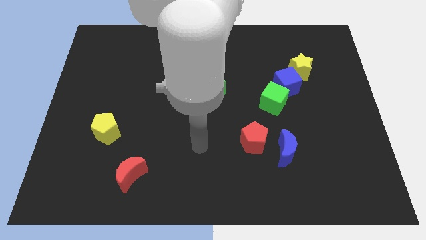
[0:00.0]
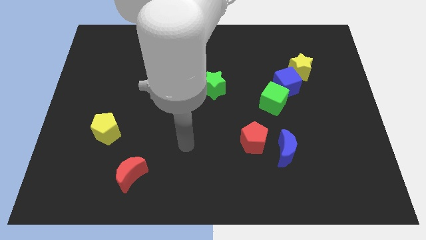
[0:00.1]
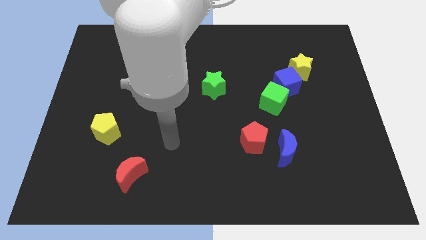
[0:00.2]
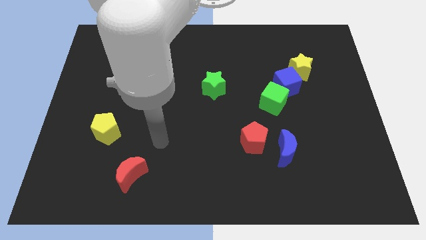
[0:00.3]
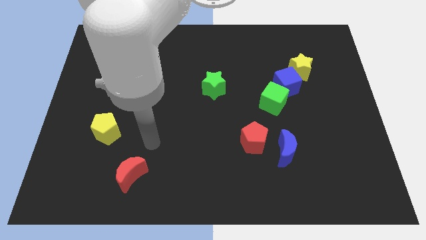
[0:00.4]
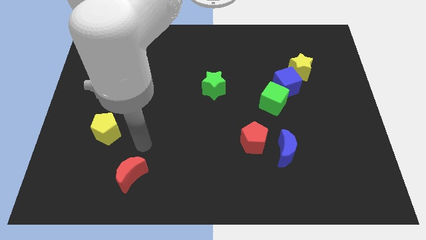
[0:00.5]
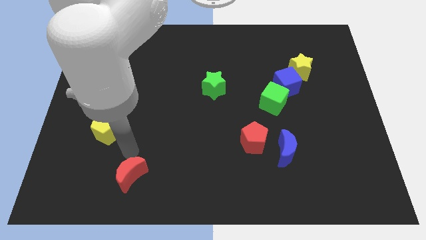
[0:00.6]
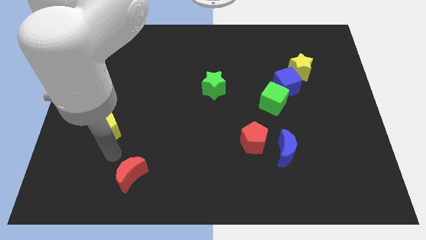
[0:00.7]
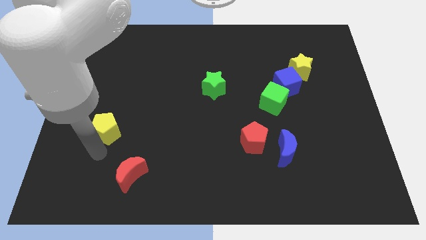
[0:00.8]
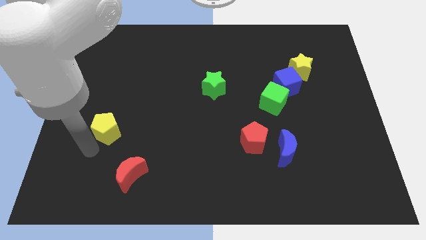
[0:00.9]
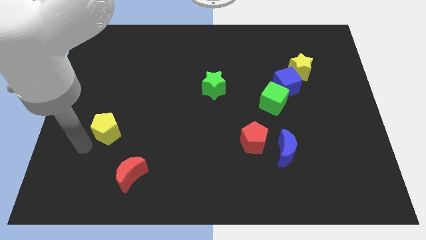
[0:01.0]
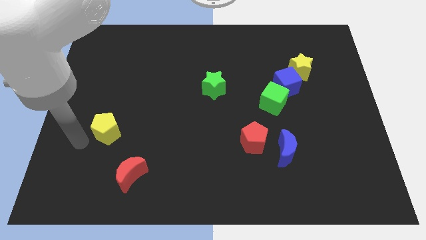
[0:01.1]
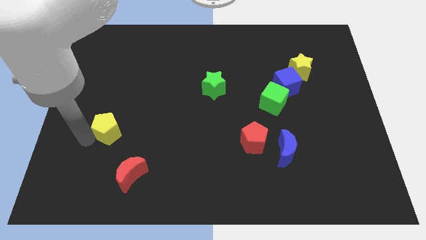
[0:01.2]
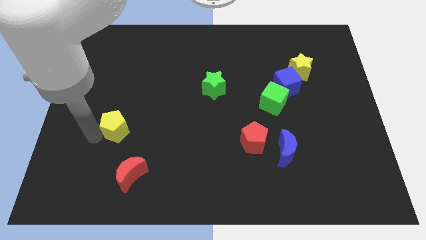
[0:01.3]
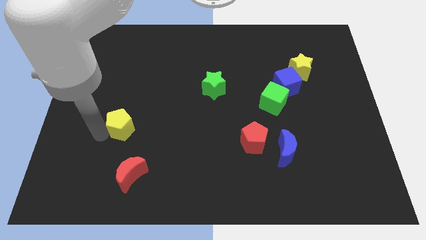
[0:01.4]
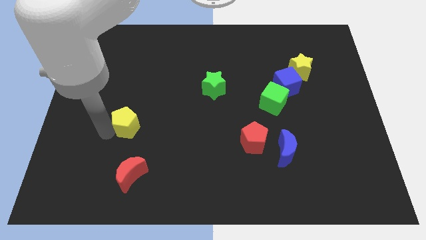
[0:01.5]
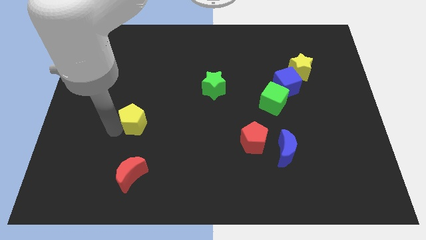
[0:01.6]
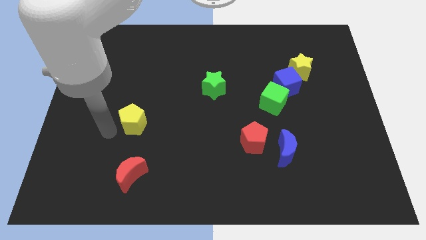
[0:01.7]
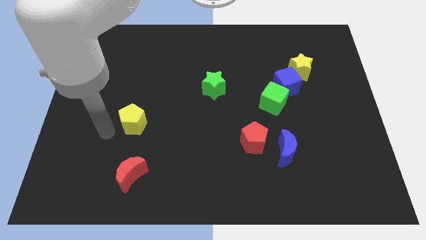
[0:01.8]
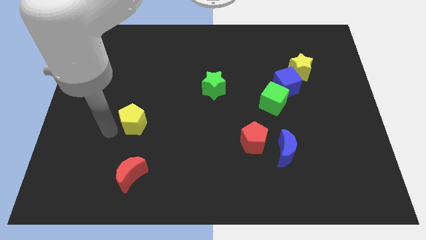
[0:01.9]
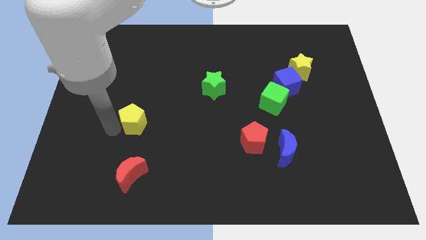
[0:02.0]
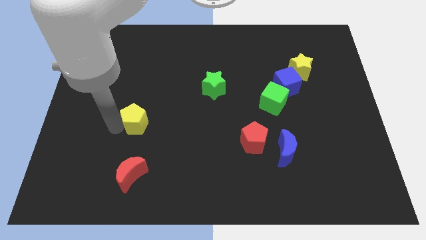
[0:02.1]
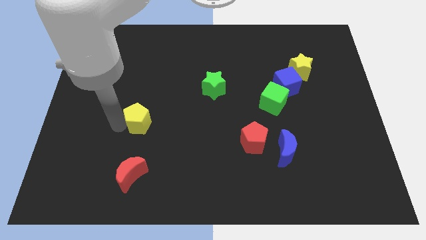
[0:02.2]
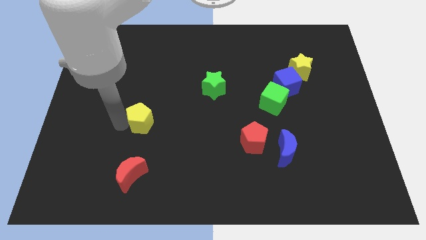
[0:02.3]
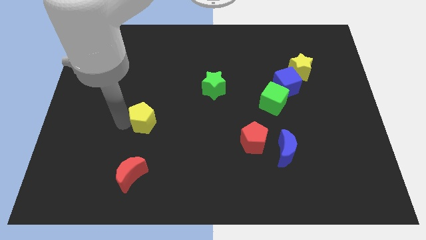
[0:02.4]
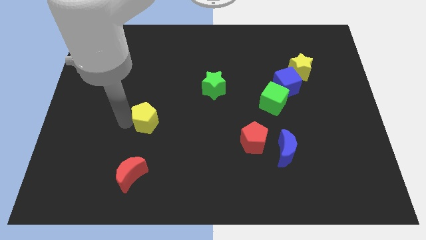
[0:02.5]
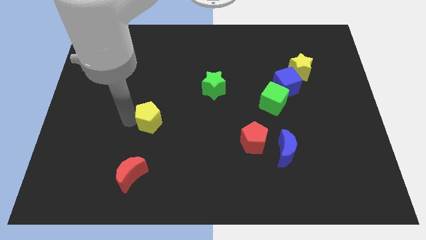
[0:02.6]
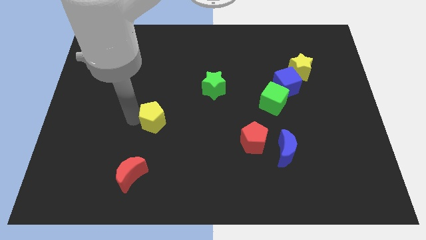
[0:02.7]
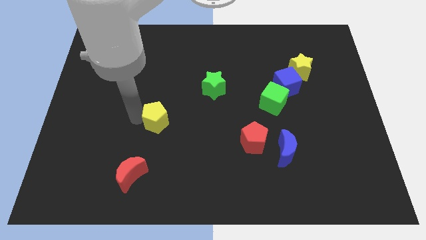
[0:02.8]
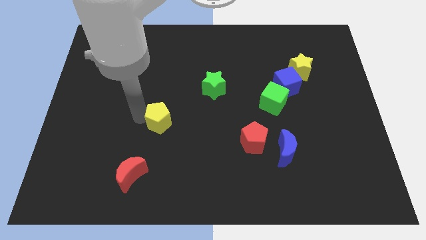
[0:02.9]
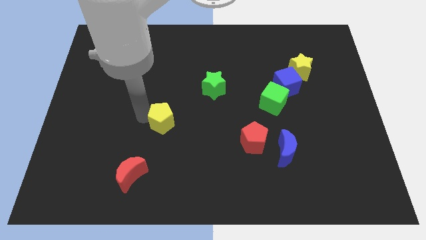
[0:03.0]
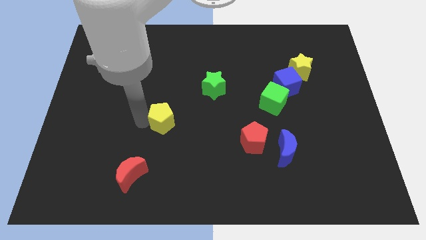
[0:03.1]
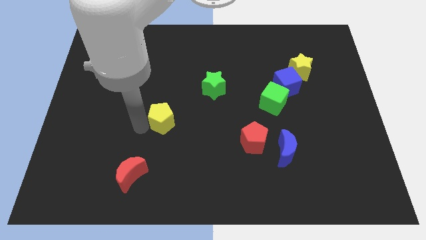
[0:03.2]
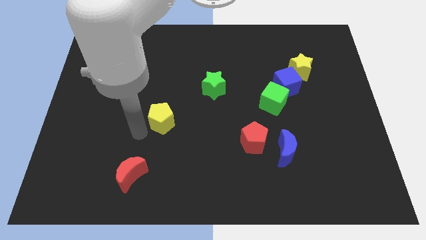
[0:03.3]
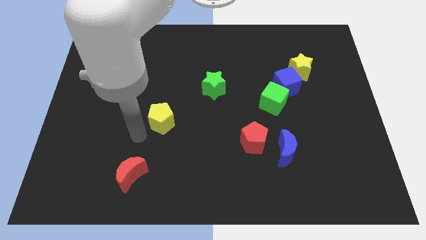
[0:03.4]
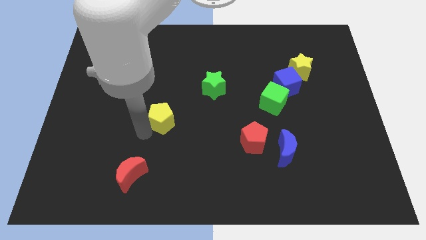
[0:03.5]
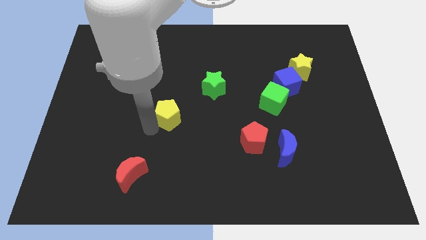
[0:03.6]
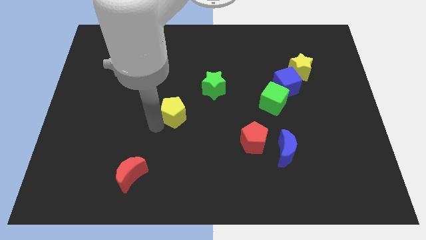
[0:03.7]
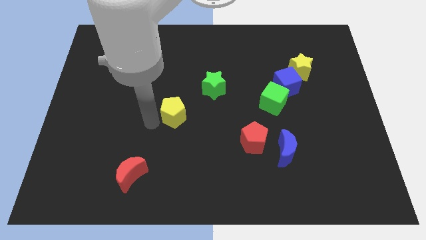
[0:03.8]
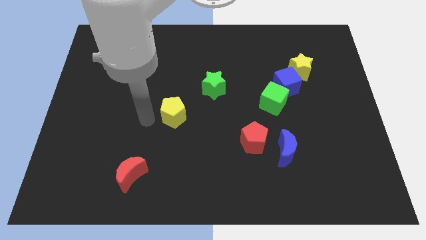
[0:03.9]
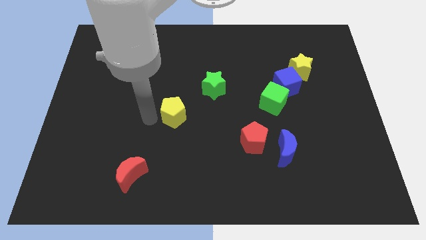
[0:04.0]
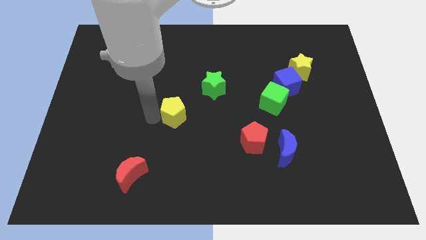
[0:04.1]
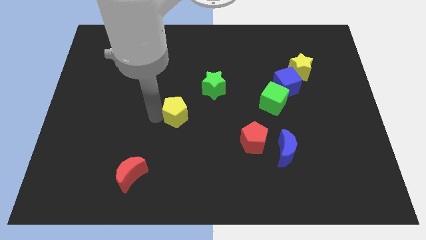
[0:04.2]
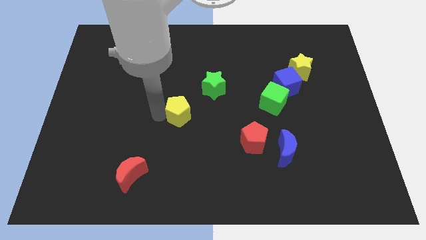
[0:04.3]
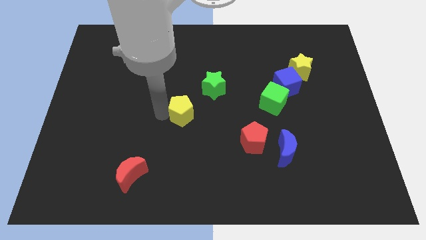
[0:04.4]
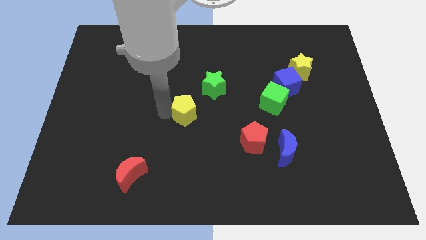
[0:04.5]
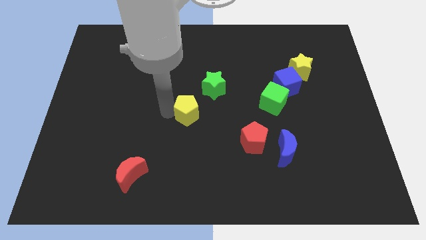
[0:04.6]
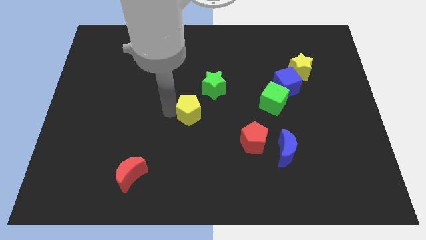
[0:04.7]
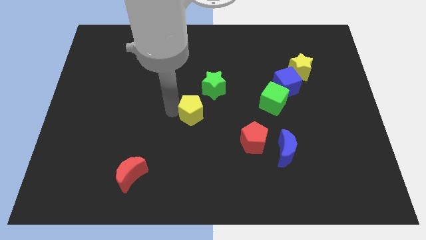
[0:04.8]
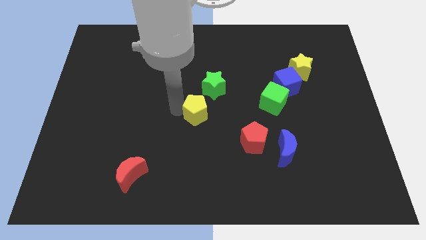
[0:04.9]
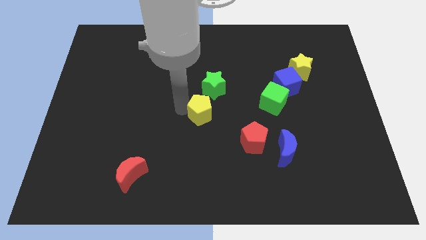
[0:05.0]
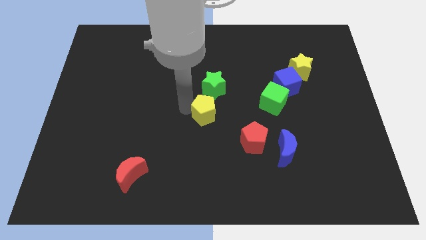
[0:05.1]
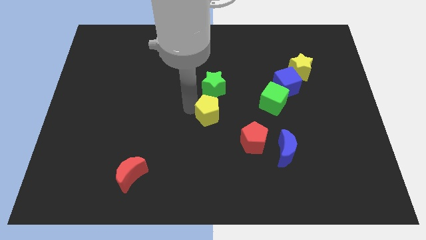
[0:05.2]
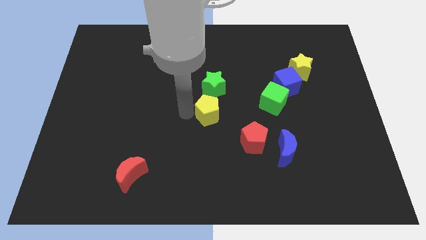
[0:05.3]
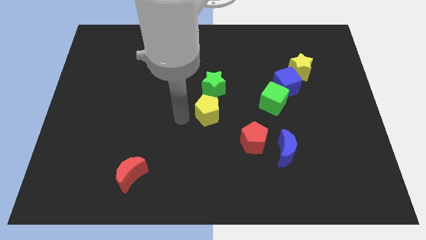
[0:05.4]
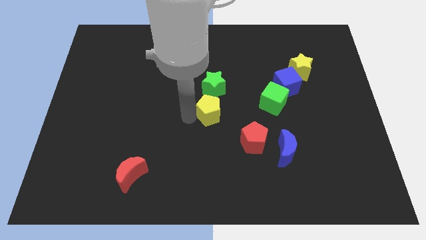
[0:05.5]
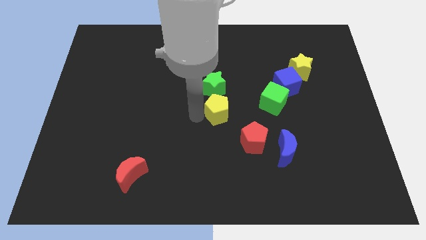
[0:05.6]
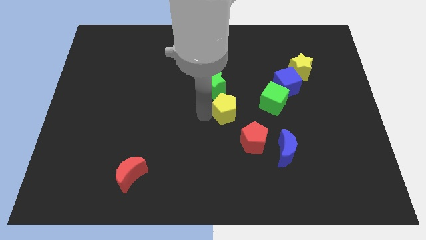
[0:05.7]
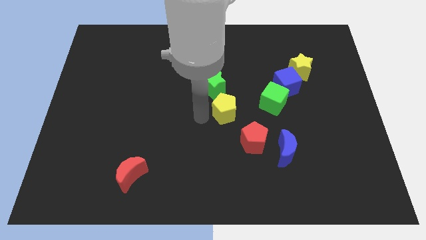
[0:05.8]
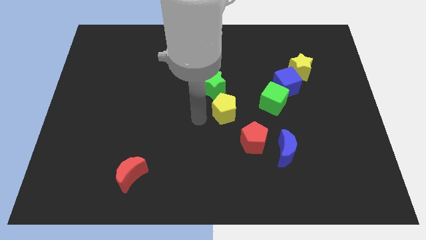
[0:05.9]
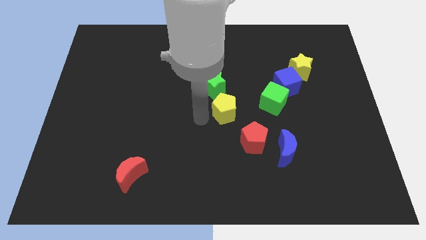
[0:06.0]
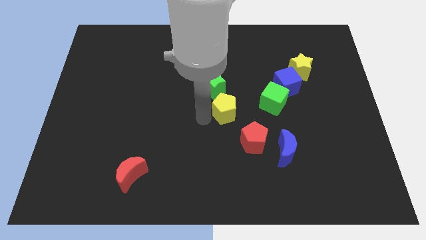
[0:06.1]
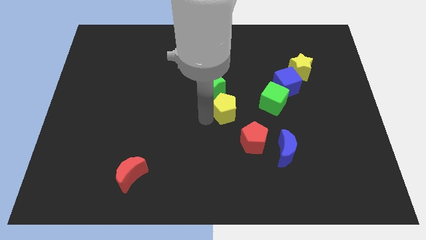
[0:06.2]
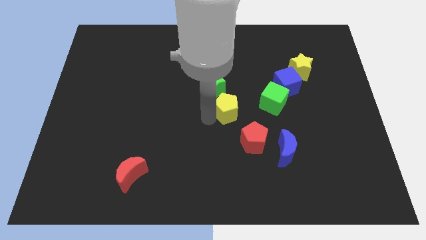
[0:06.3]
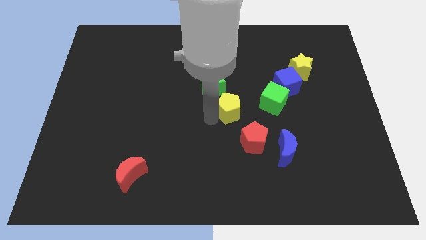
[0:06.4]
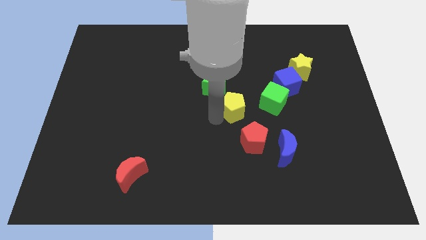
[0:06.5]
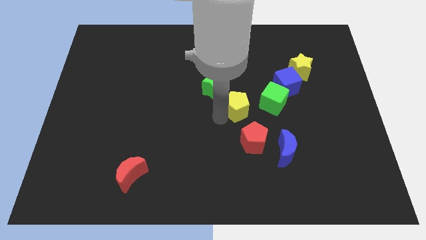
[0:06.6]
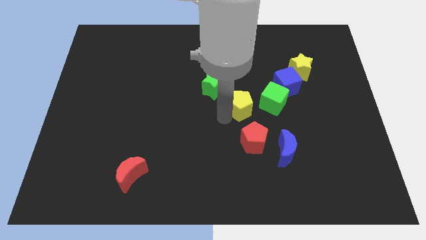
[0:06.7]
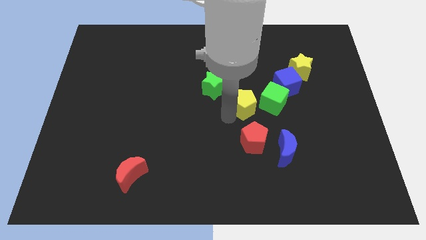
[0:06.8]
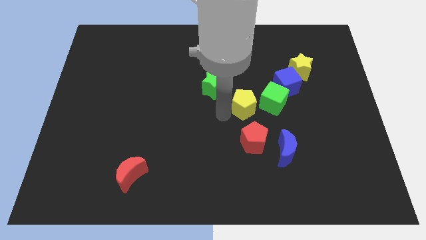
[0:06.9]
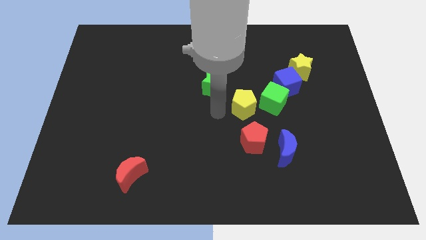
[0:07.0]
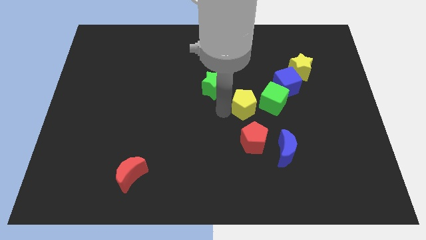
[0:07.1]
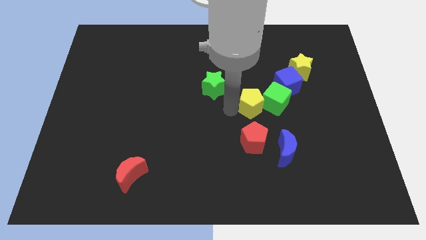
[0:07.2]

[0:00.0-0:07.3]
move the yellow pentagon next to the green cube
